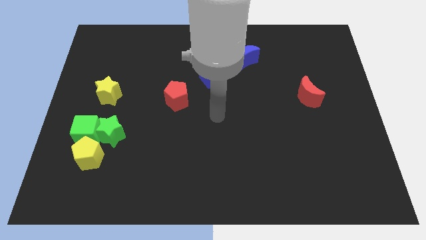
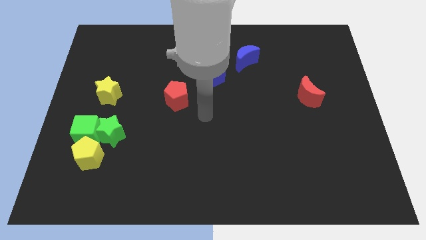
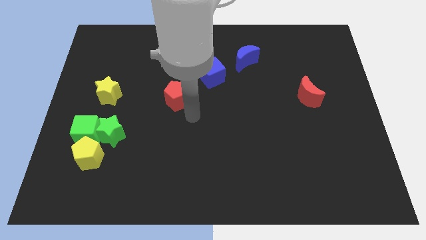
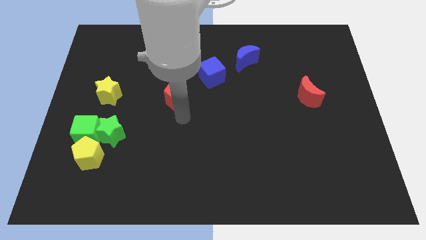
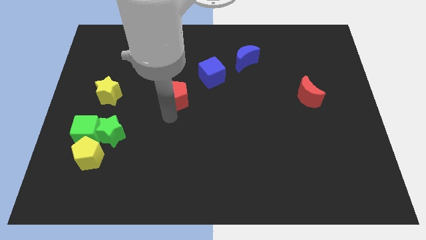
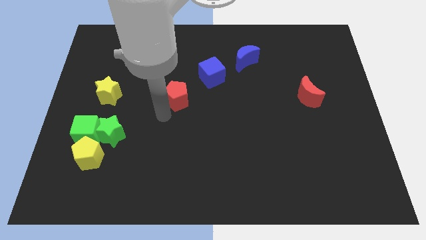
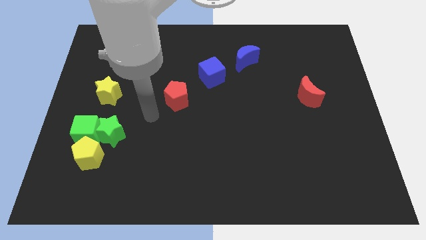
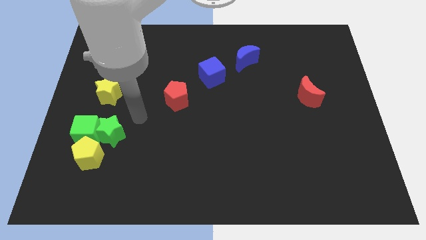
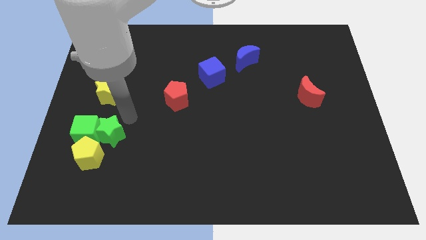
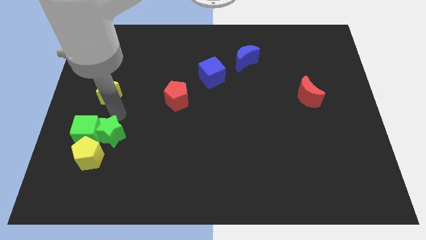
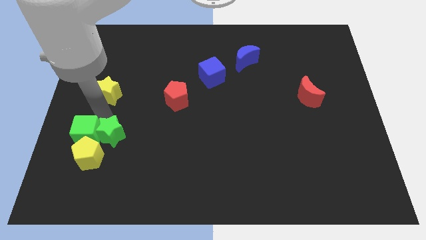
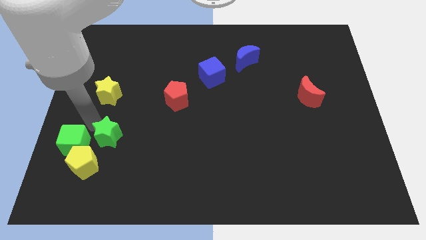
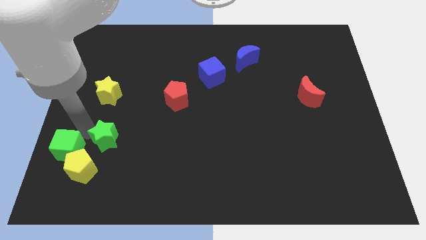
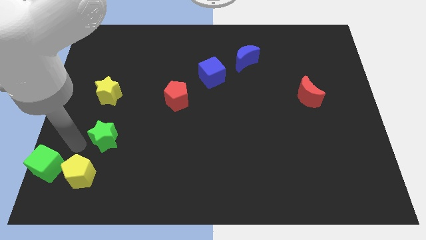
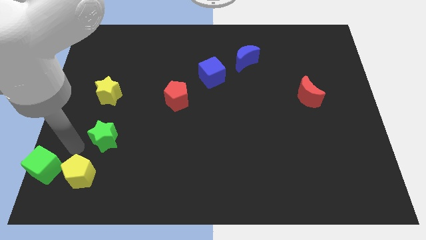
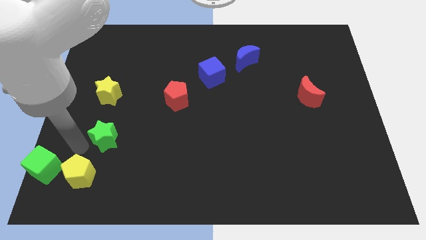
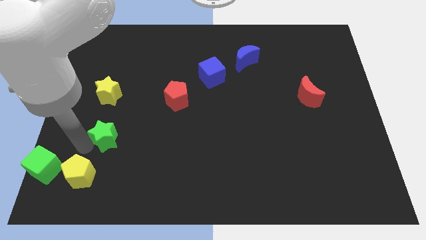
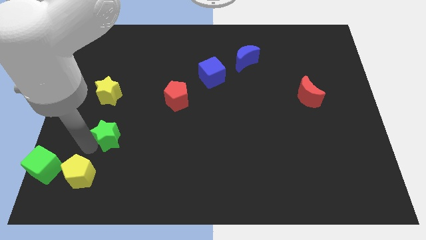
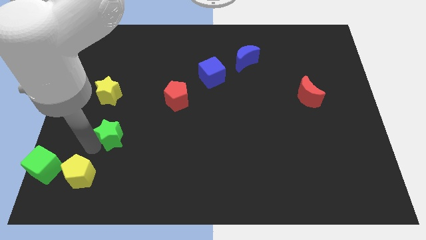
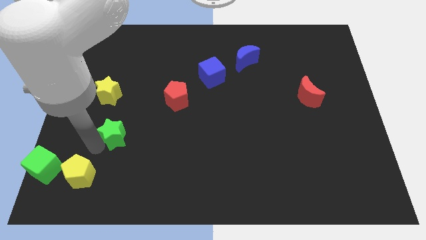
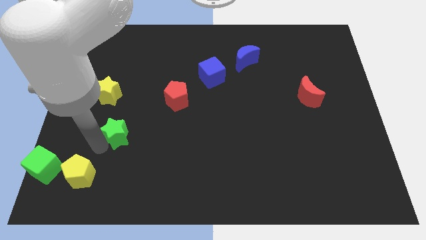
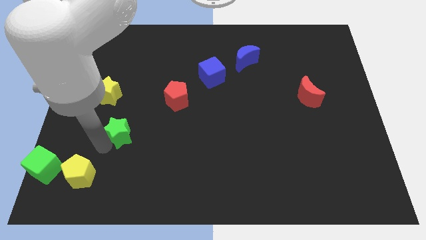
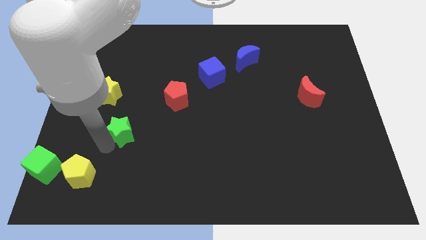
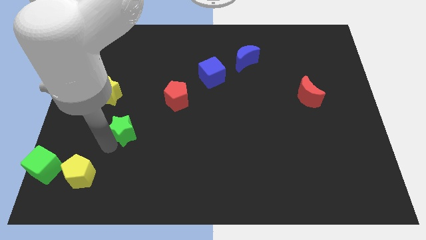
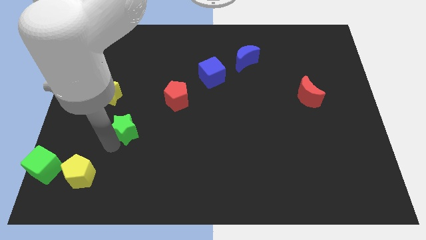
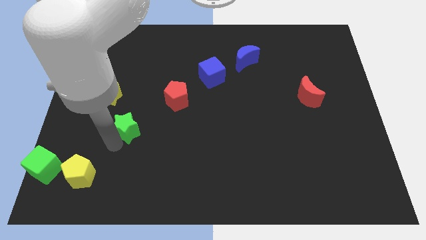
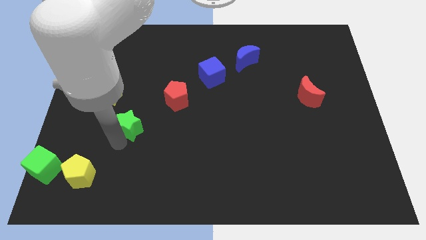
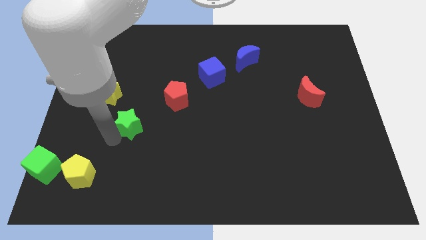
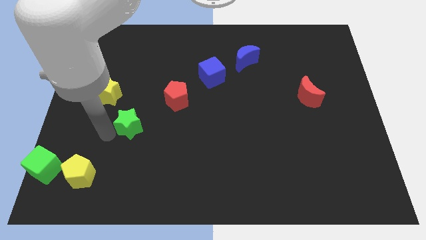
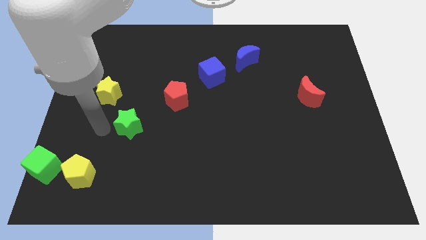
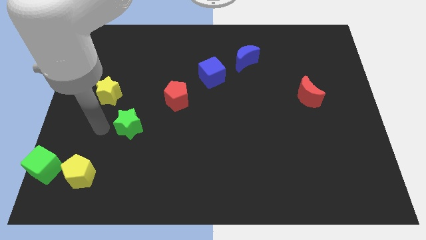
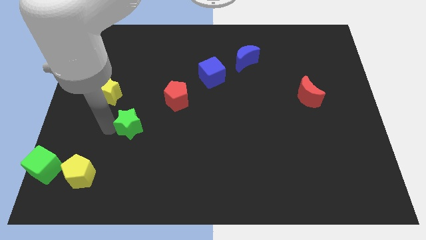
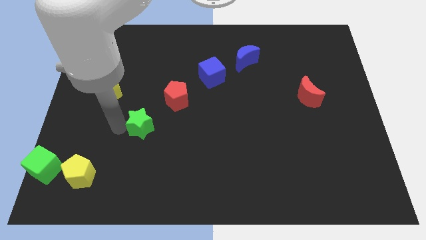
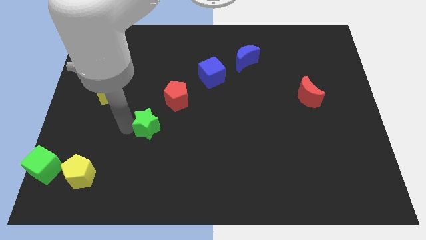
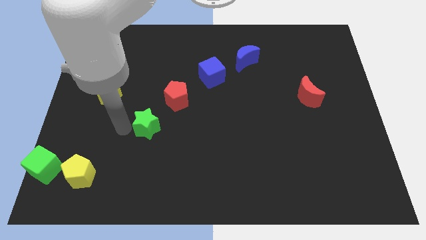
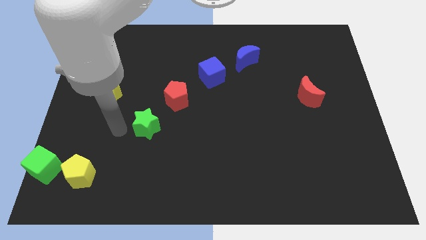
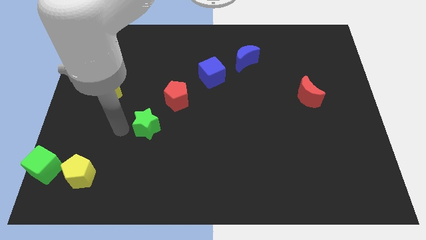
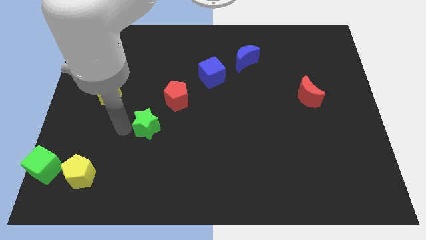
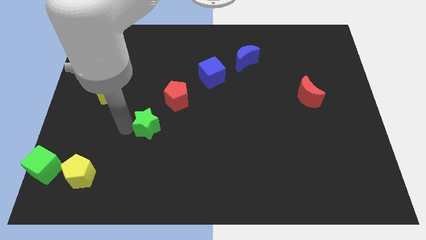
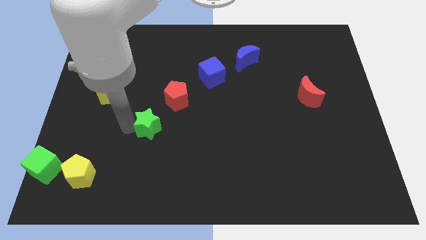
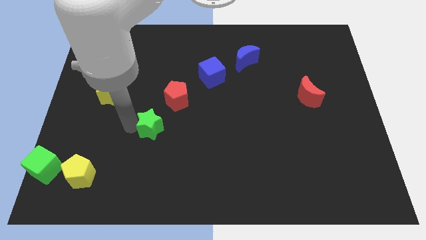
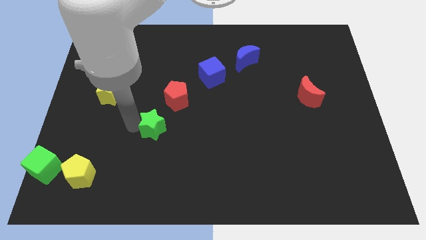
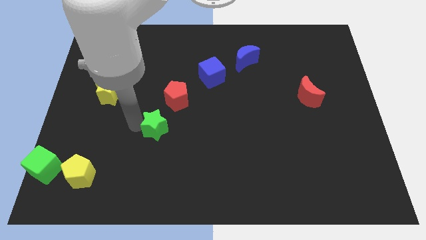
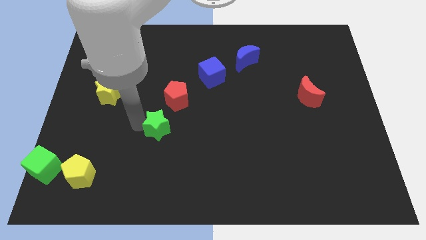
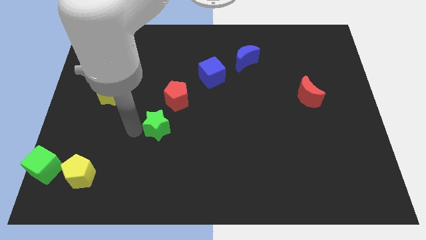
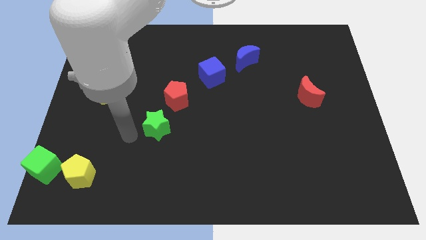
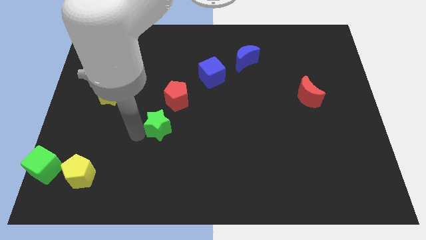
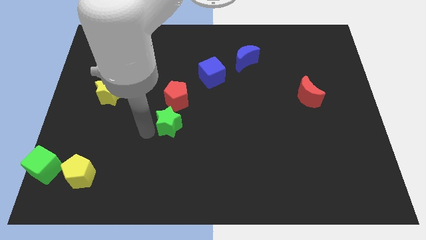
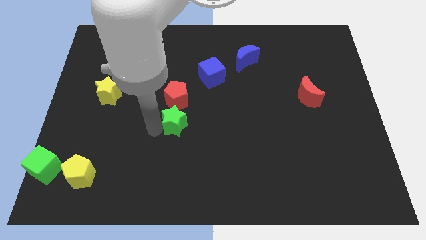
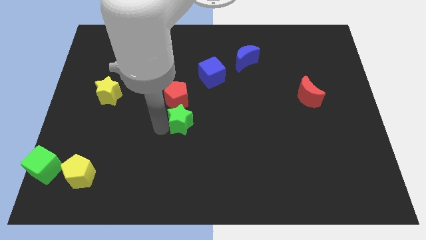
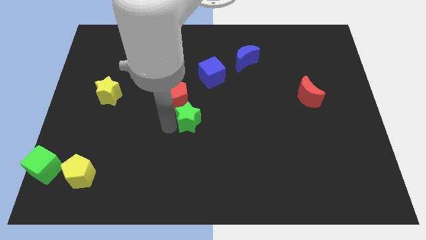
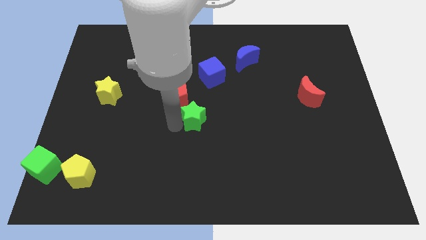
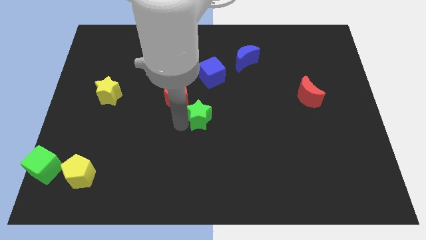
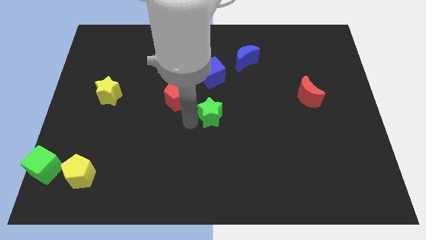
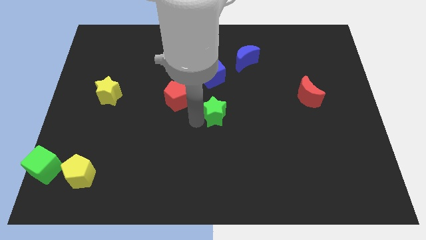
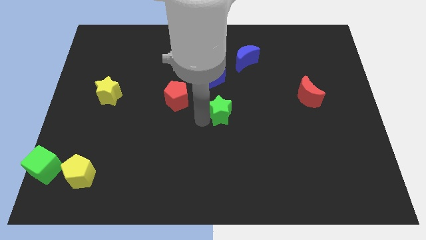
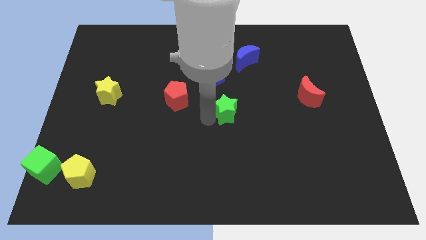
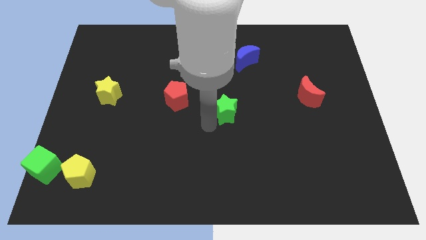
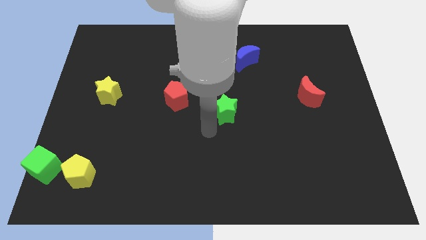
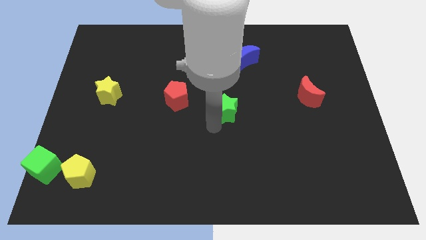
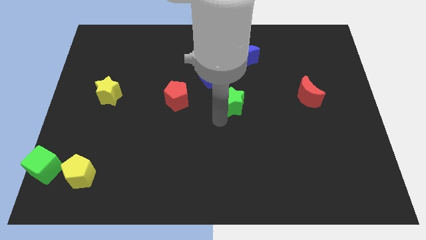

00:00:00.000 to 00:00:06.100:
push the green star to the bottom of the blue moon

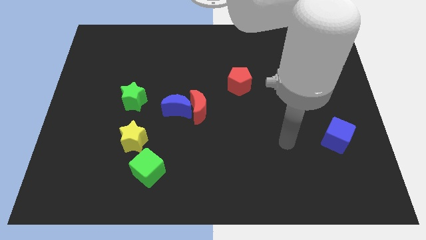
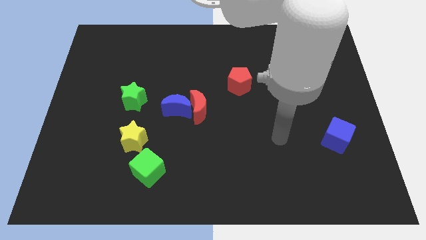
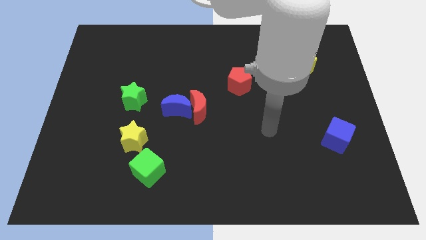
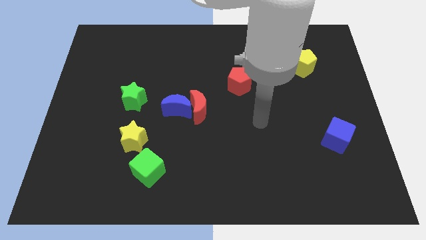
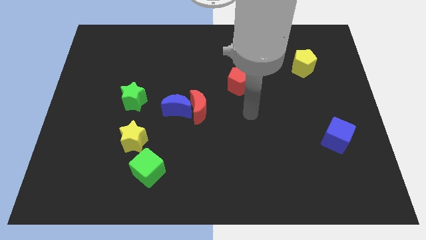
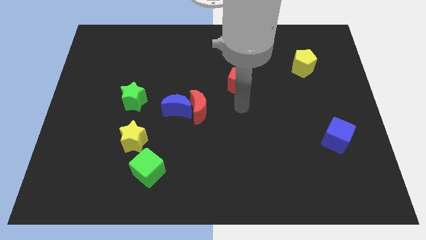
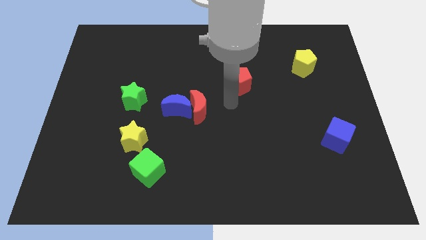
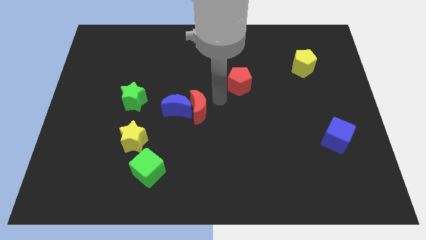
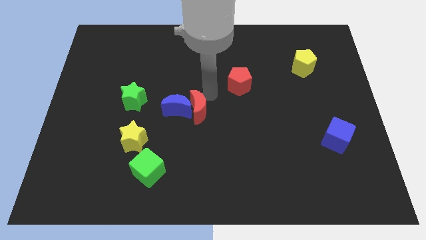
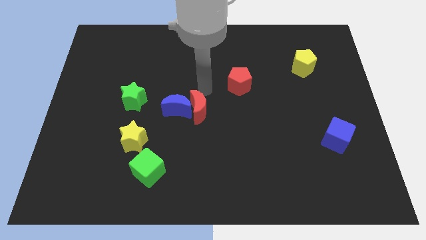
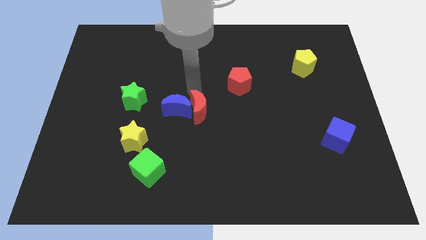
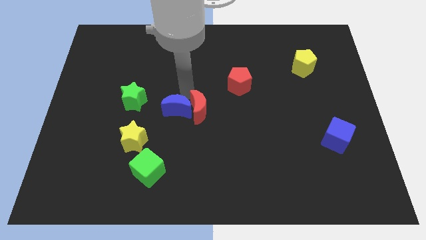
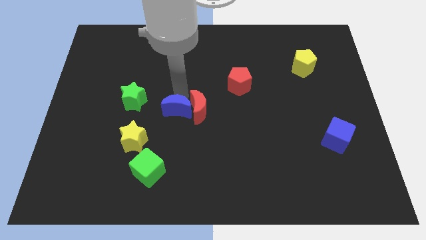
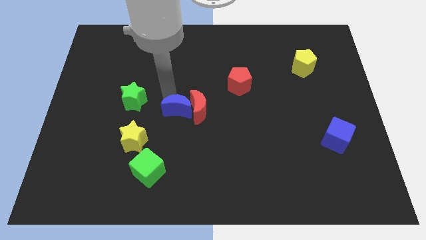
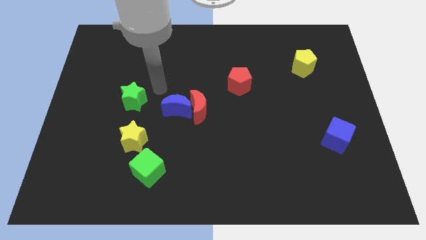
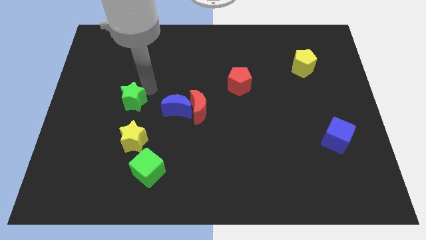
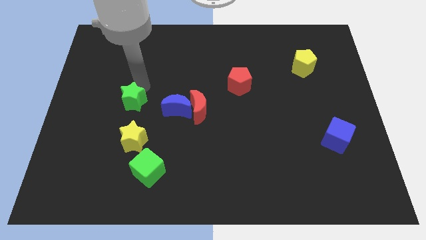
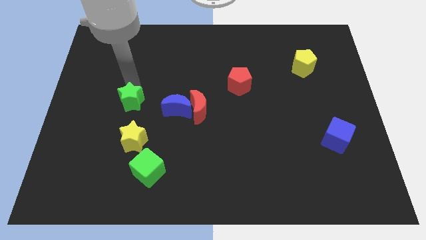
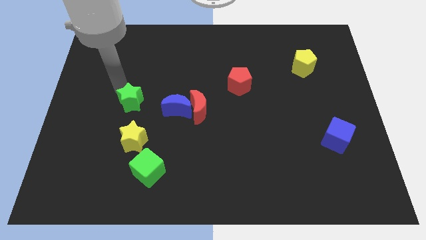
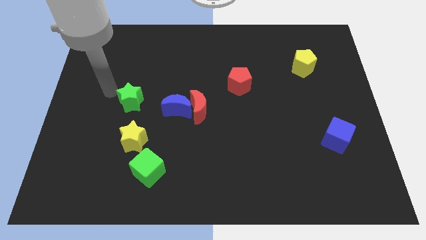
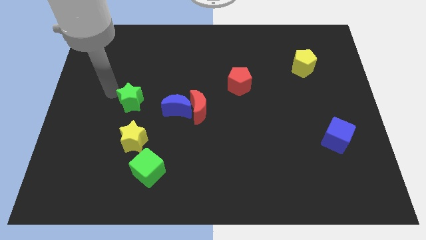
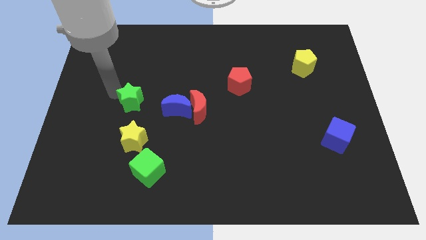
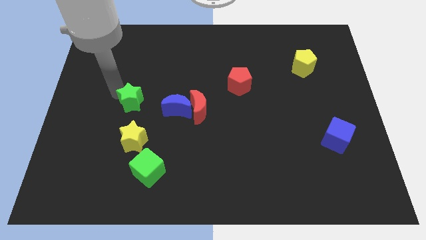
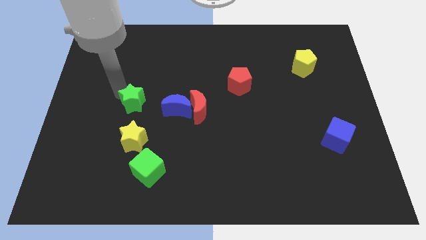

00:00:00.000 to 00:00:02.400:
push the green star just left of the red moon
